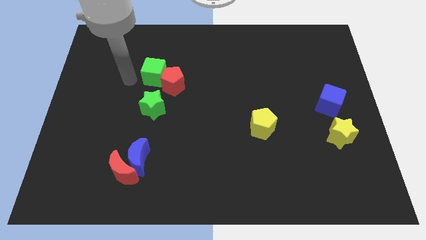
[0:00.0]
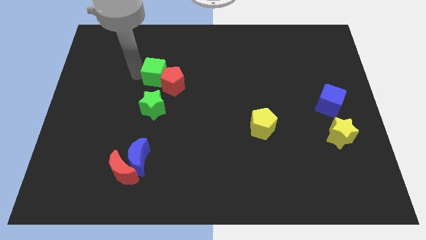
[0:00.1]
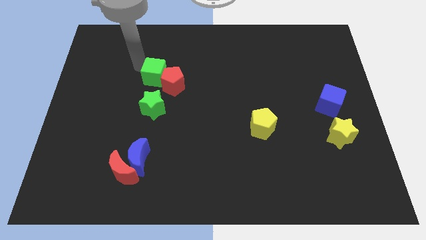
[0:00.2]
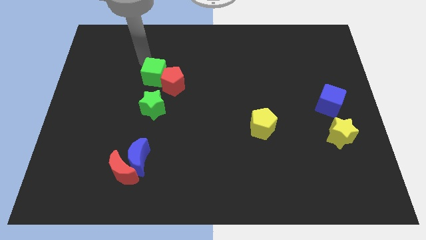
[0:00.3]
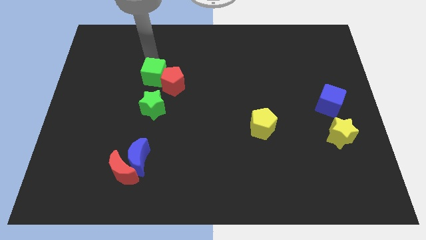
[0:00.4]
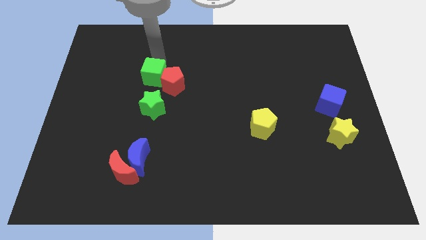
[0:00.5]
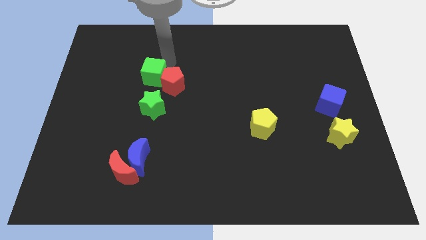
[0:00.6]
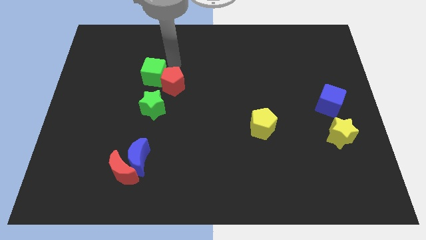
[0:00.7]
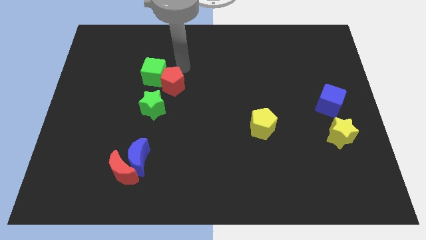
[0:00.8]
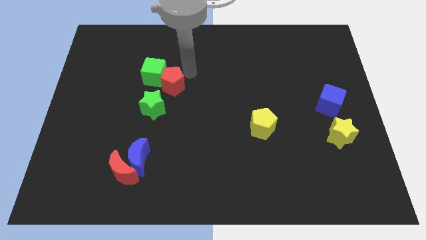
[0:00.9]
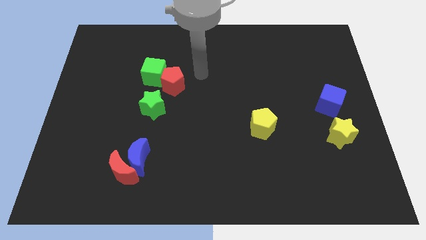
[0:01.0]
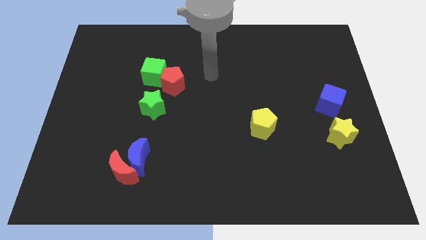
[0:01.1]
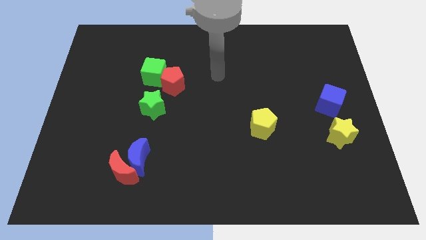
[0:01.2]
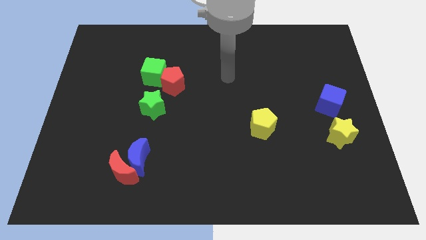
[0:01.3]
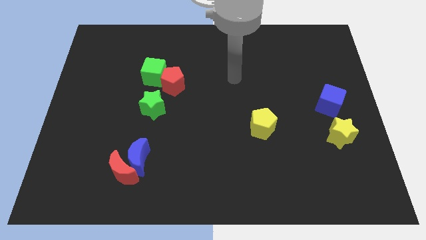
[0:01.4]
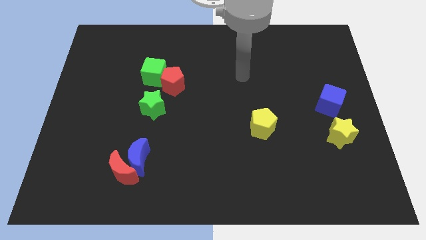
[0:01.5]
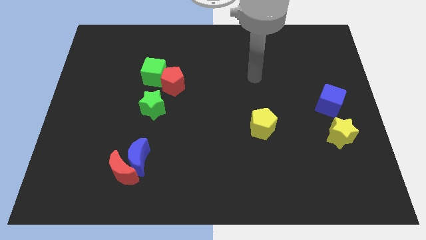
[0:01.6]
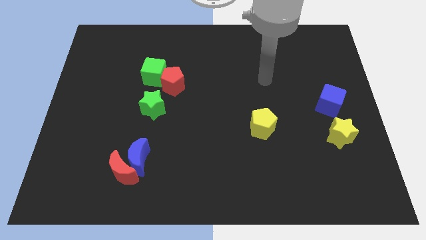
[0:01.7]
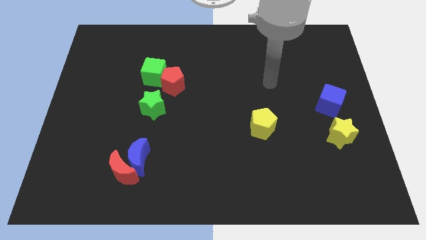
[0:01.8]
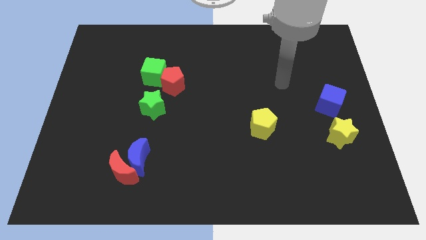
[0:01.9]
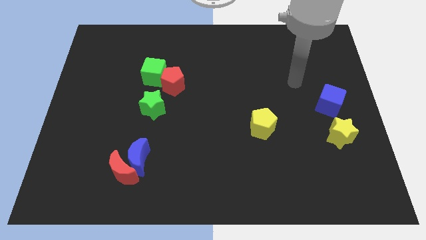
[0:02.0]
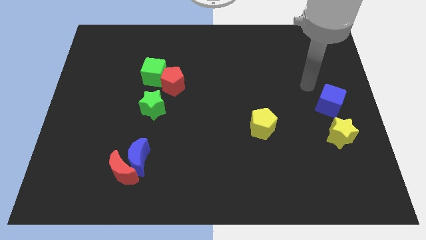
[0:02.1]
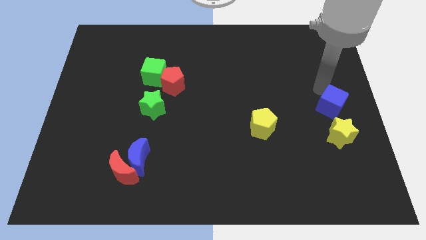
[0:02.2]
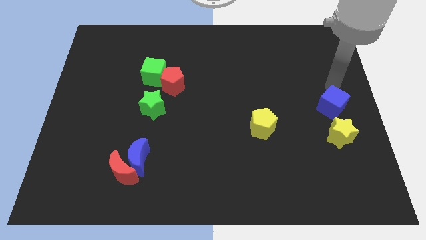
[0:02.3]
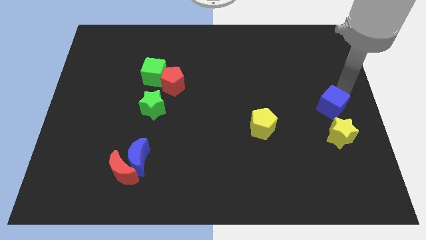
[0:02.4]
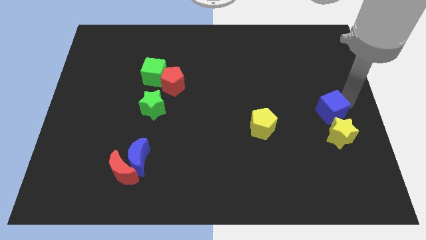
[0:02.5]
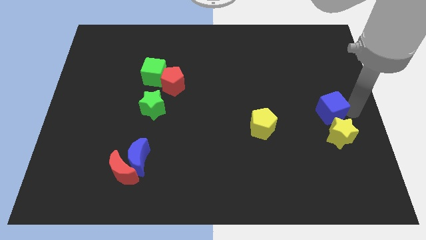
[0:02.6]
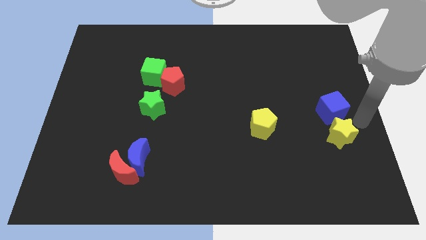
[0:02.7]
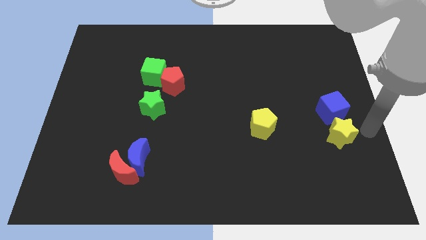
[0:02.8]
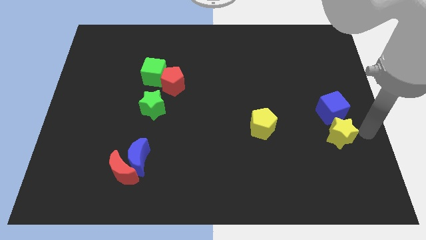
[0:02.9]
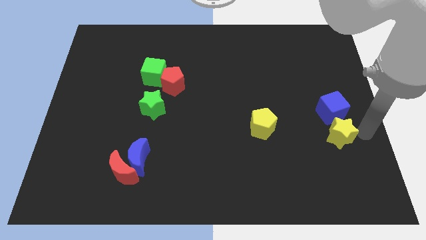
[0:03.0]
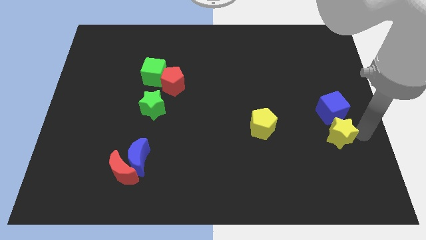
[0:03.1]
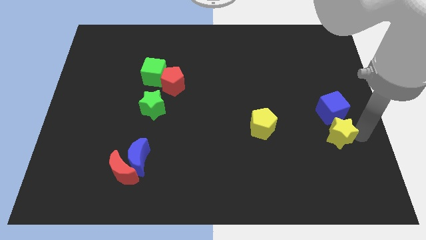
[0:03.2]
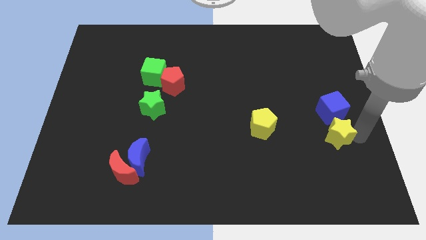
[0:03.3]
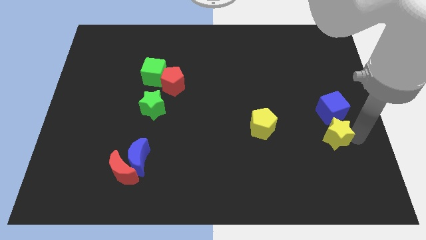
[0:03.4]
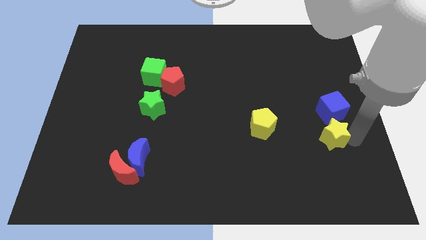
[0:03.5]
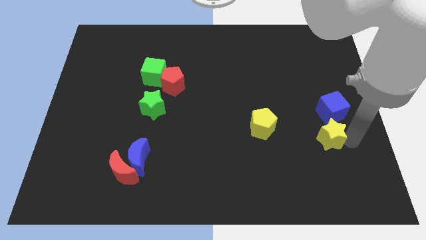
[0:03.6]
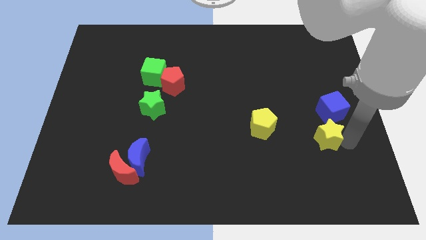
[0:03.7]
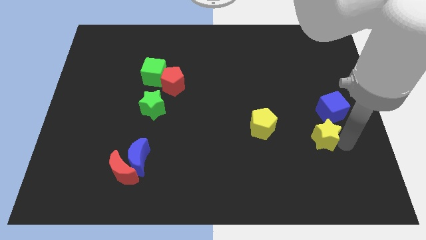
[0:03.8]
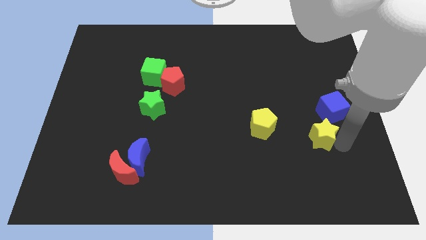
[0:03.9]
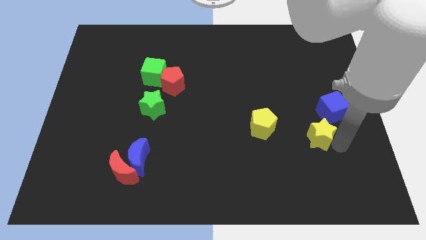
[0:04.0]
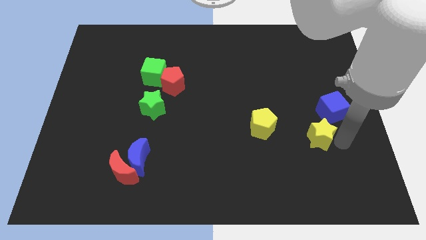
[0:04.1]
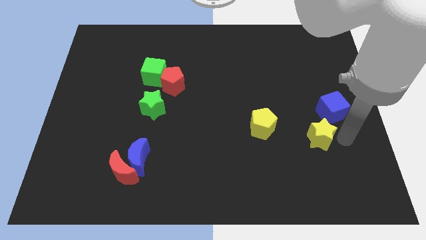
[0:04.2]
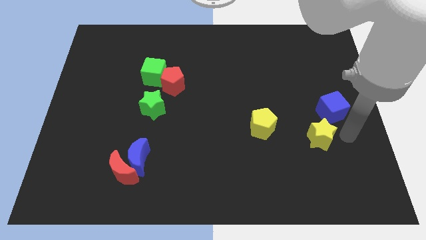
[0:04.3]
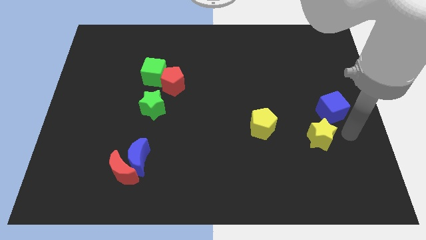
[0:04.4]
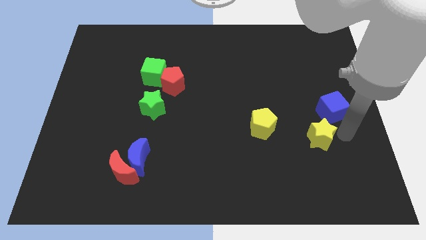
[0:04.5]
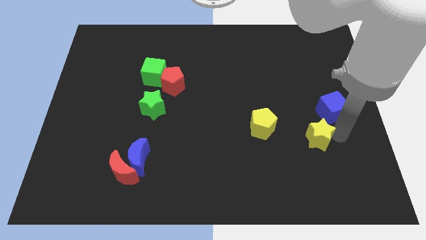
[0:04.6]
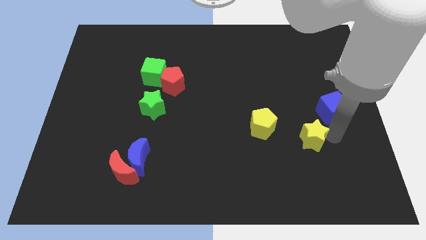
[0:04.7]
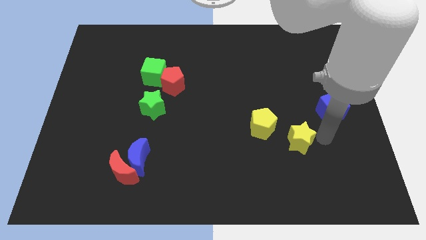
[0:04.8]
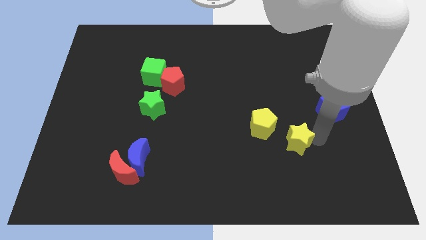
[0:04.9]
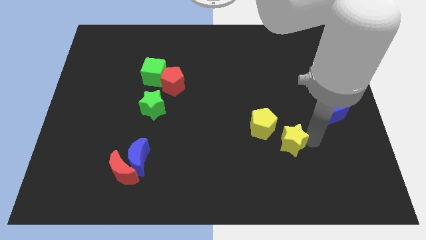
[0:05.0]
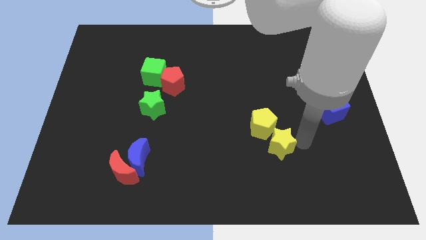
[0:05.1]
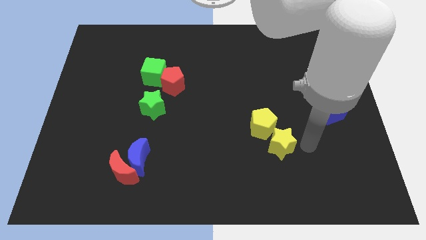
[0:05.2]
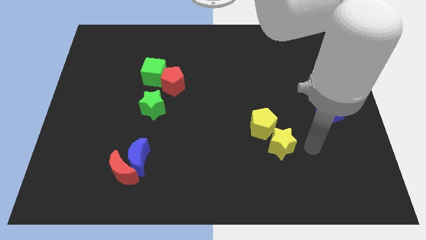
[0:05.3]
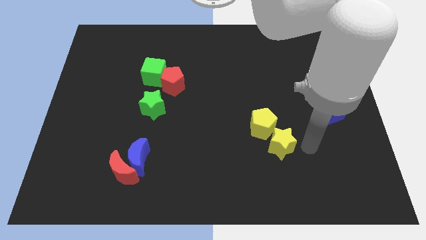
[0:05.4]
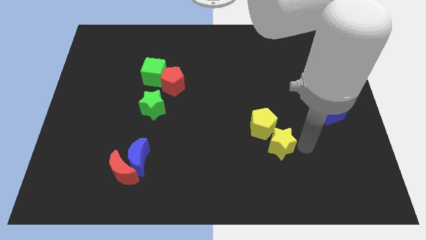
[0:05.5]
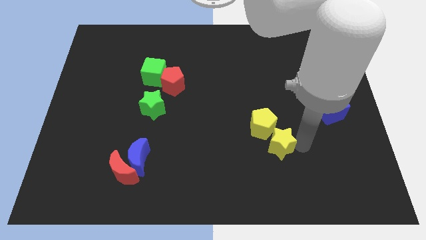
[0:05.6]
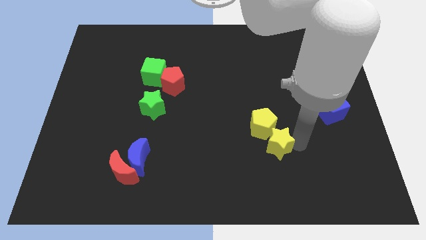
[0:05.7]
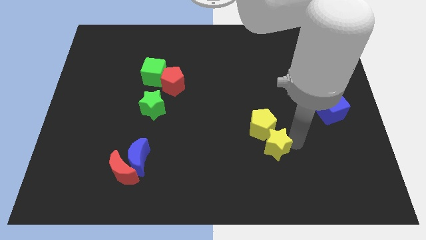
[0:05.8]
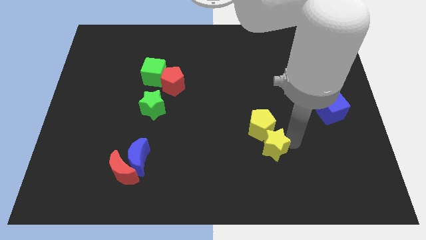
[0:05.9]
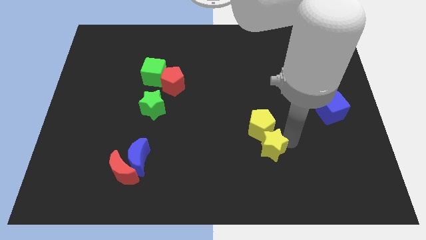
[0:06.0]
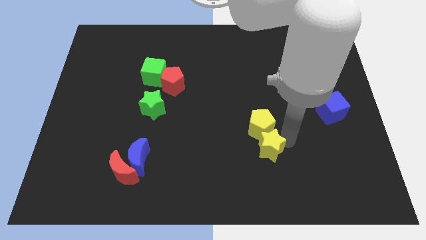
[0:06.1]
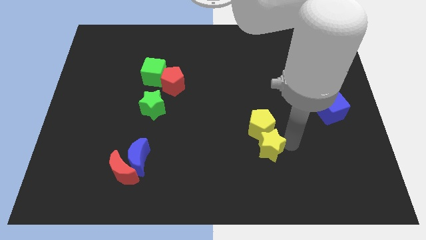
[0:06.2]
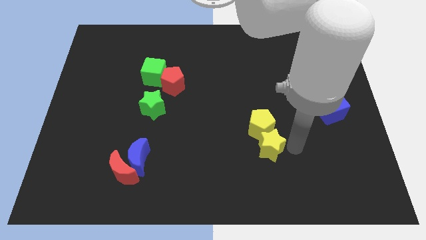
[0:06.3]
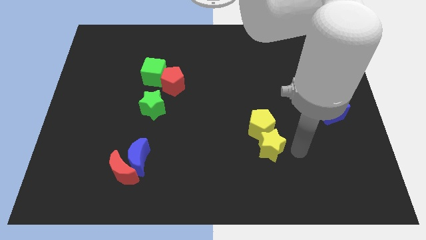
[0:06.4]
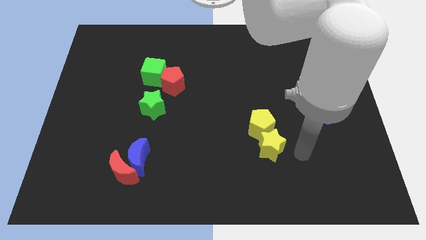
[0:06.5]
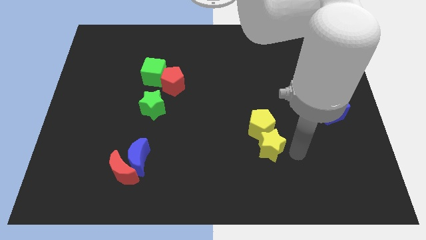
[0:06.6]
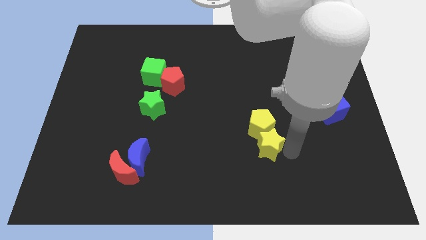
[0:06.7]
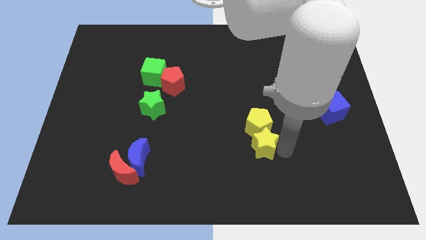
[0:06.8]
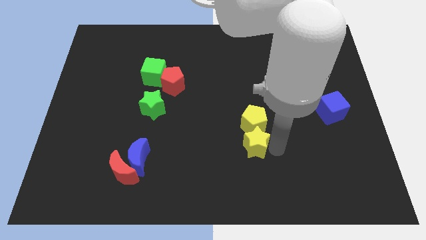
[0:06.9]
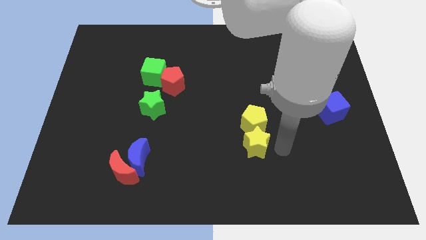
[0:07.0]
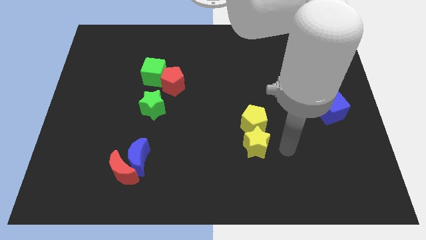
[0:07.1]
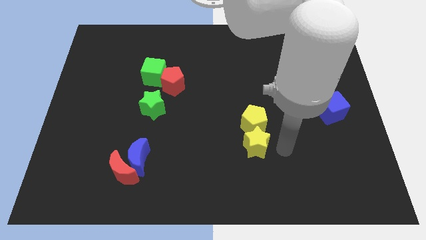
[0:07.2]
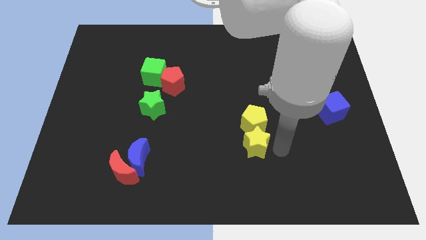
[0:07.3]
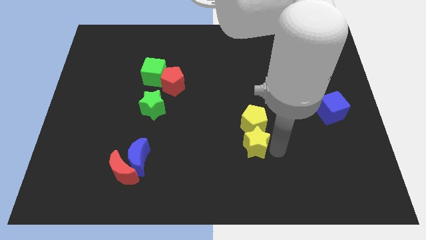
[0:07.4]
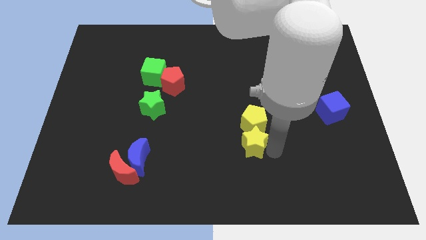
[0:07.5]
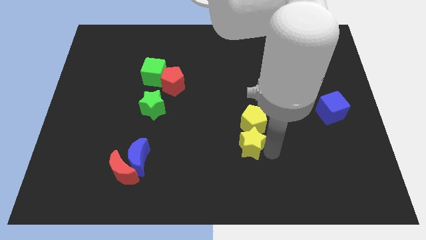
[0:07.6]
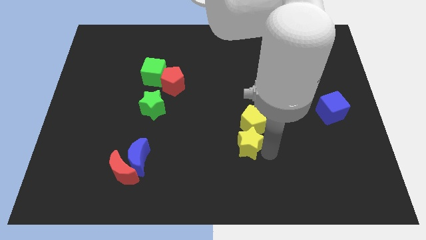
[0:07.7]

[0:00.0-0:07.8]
slide the yellow star to the left

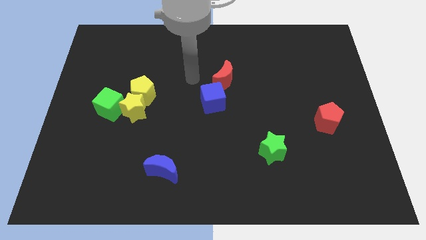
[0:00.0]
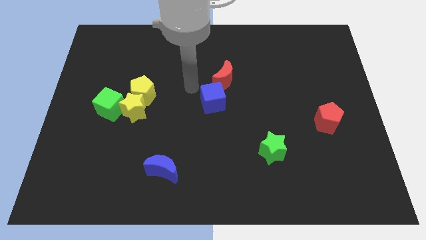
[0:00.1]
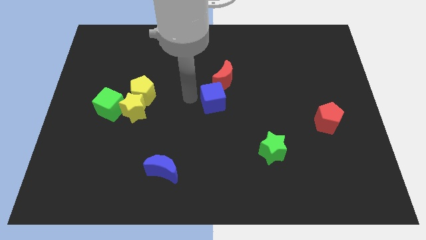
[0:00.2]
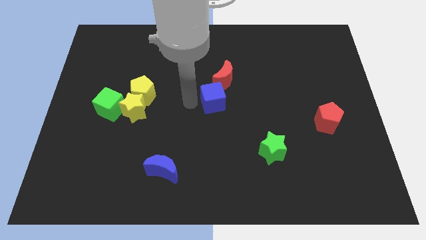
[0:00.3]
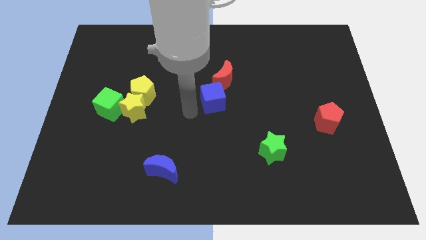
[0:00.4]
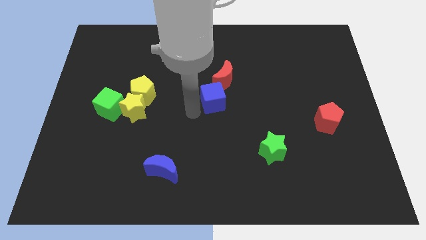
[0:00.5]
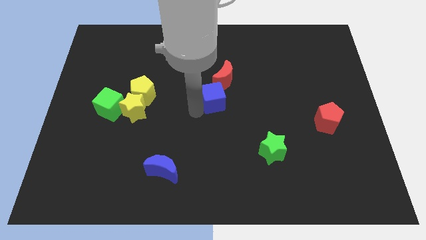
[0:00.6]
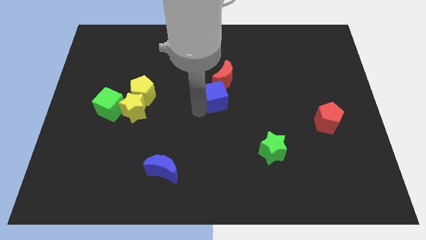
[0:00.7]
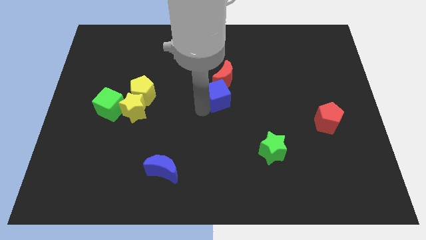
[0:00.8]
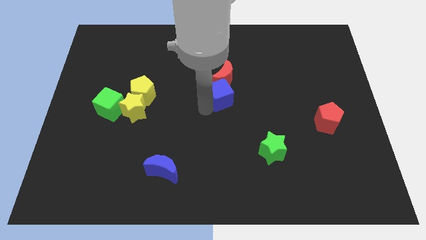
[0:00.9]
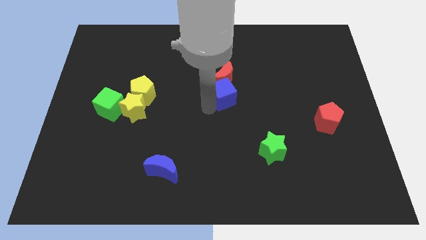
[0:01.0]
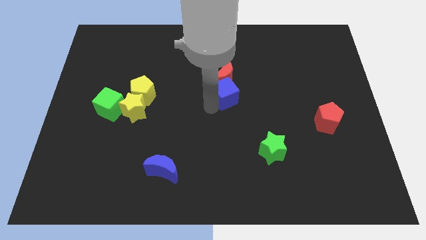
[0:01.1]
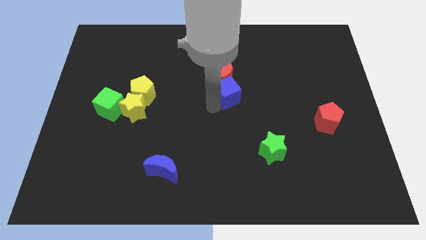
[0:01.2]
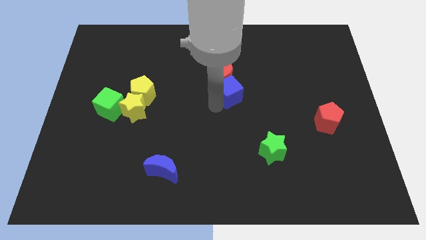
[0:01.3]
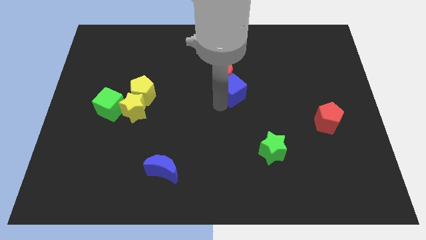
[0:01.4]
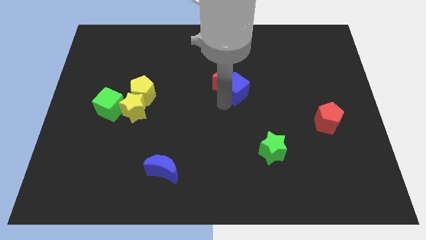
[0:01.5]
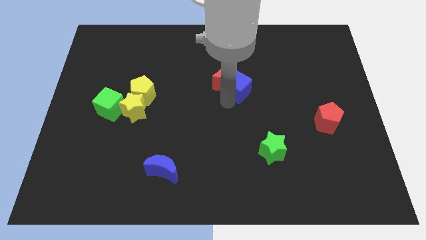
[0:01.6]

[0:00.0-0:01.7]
slide the blue cube slightly diagonally up and to the right
